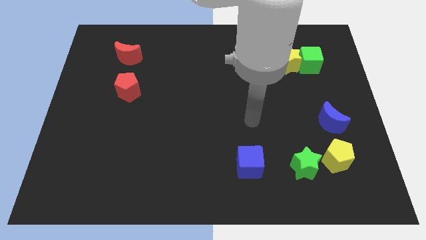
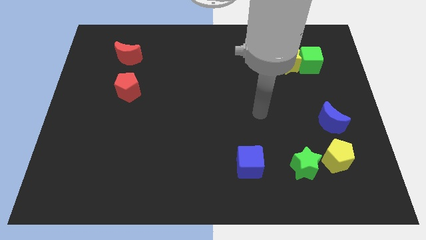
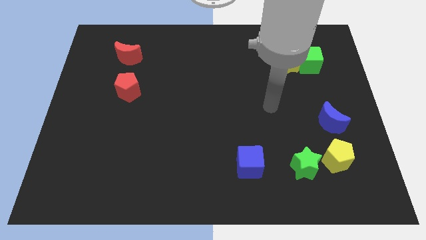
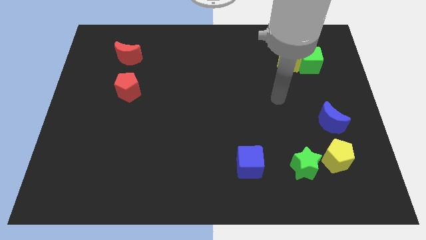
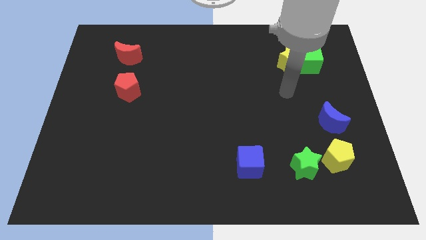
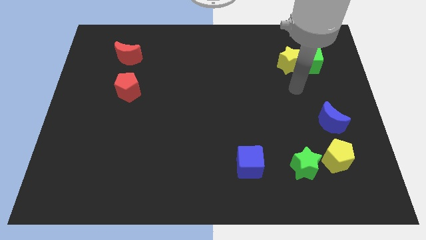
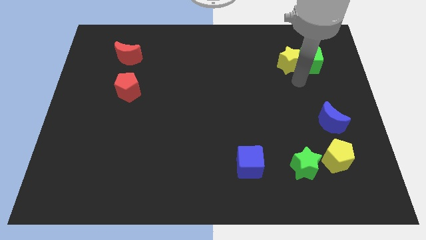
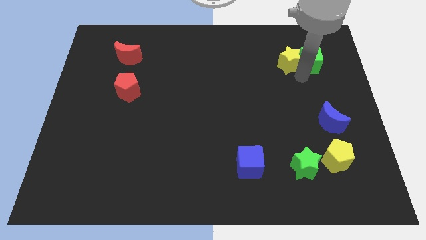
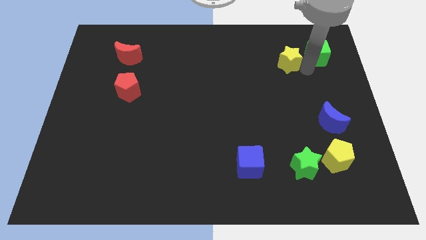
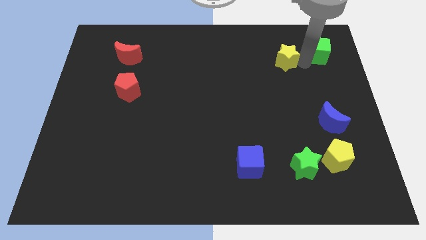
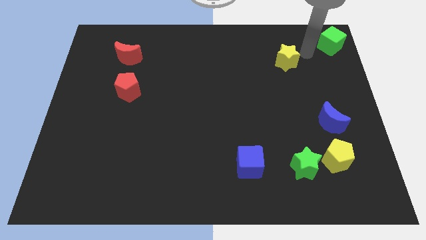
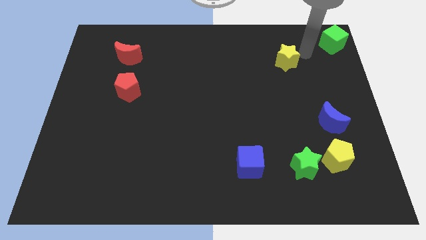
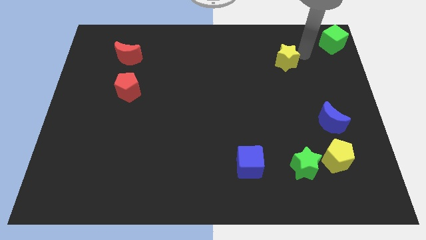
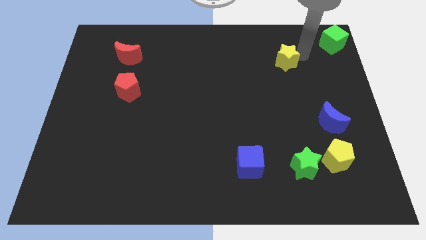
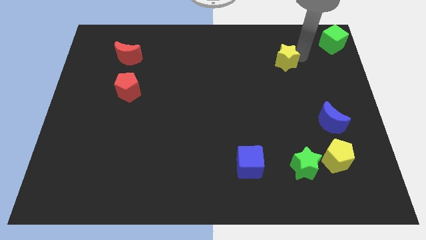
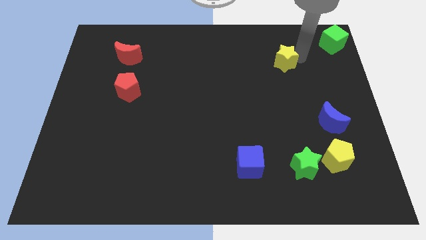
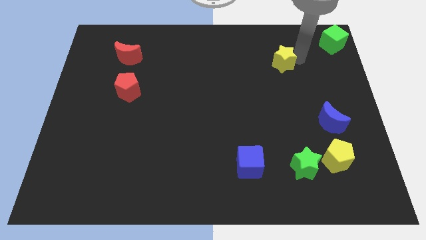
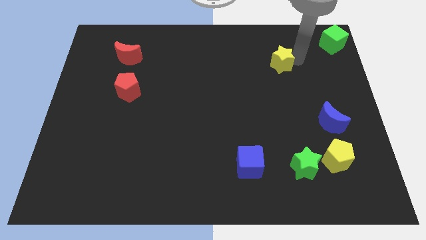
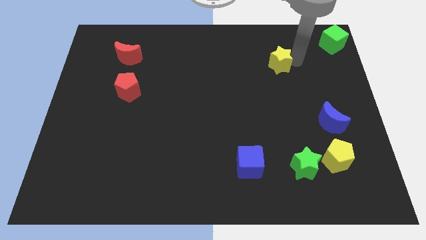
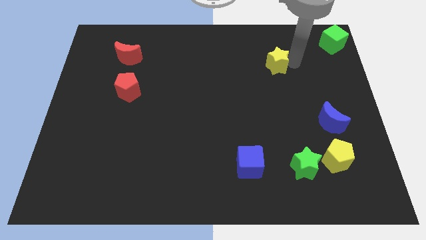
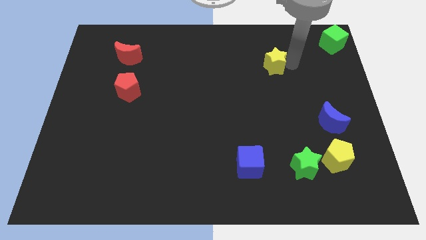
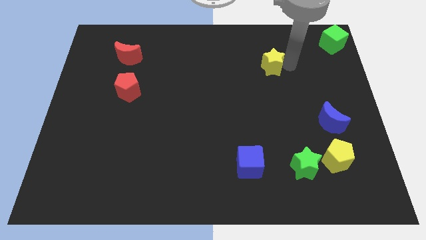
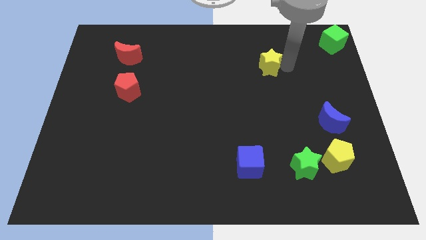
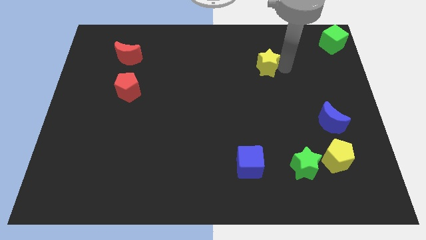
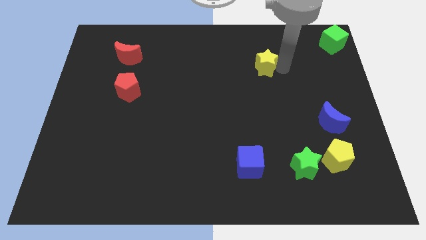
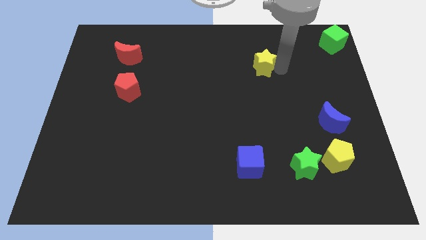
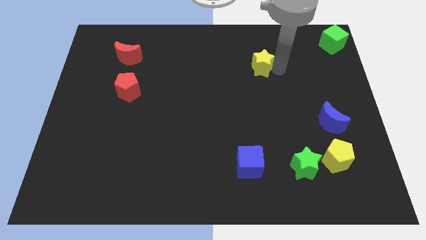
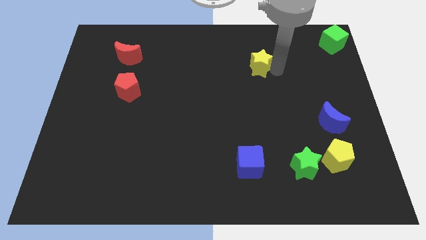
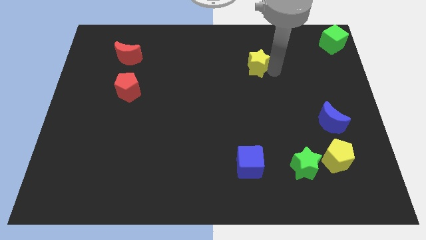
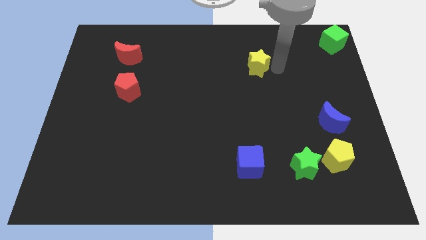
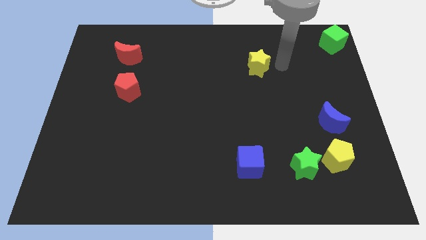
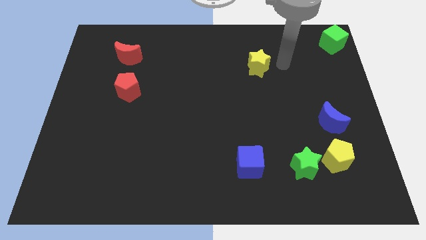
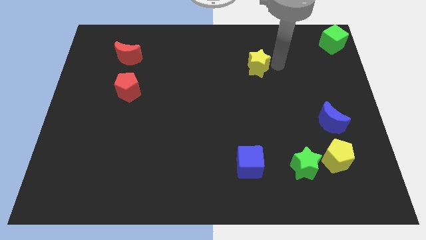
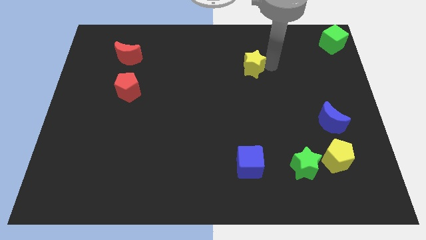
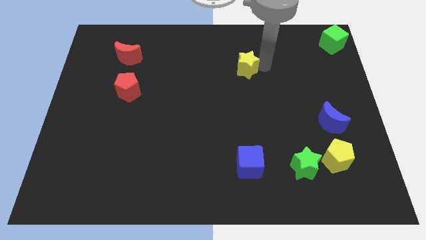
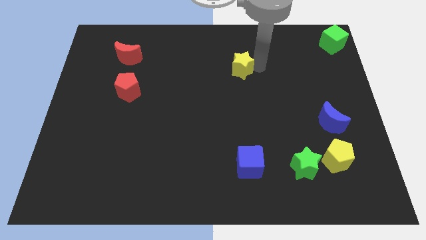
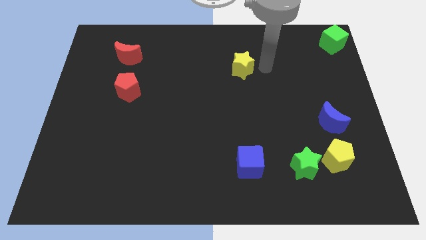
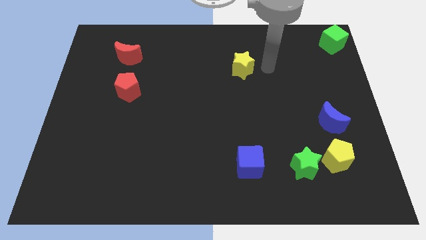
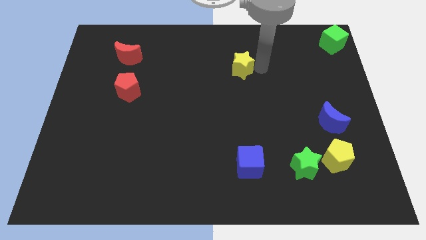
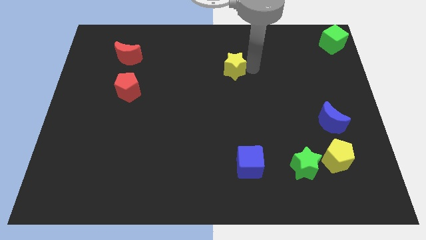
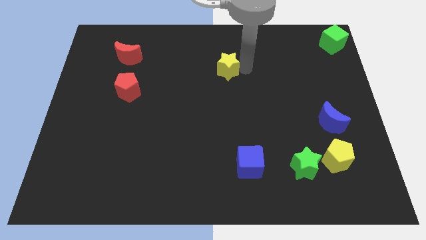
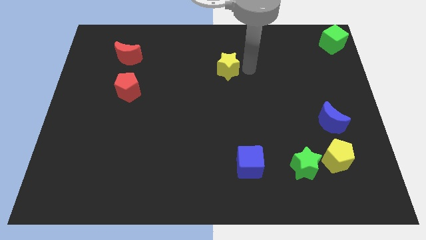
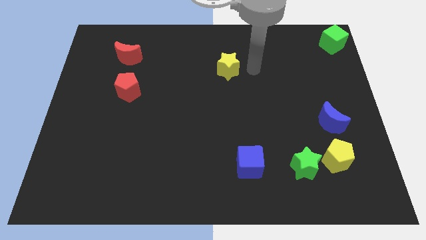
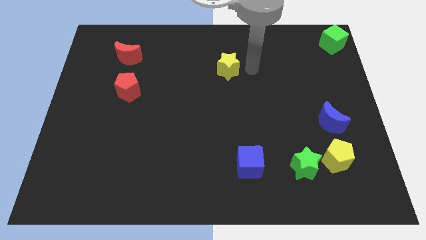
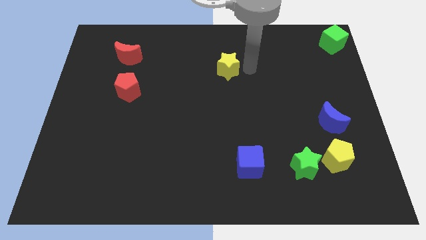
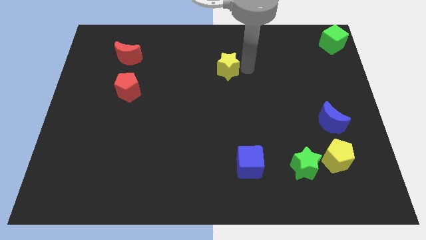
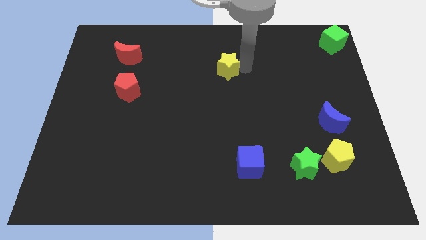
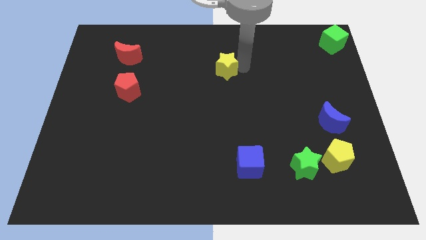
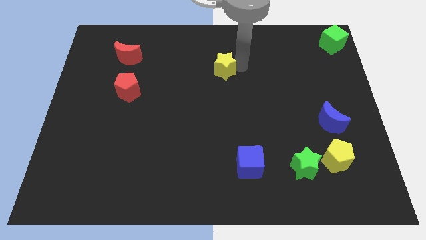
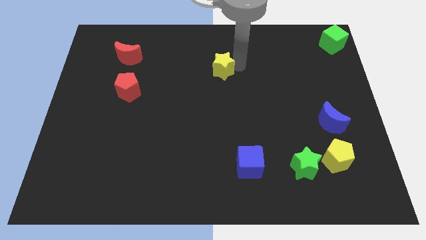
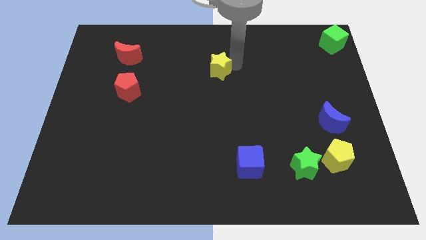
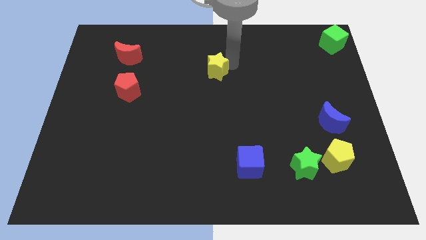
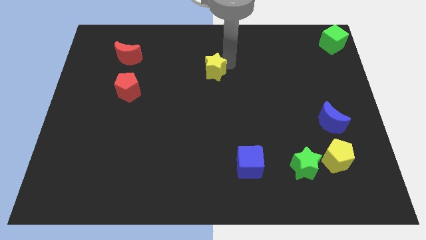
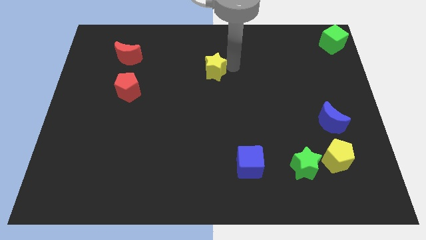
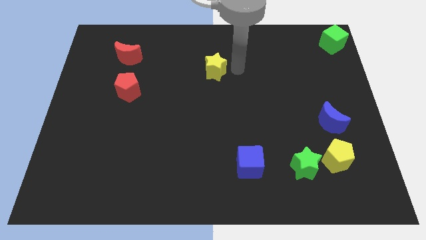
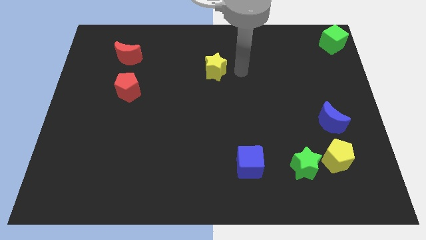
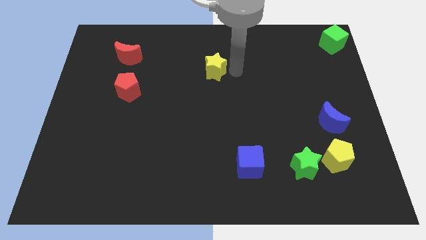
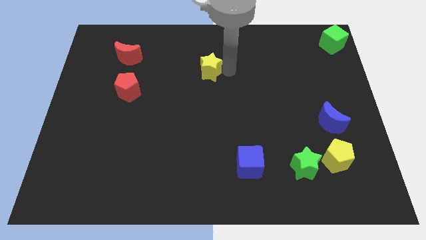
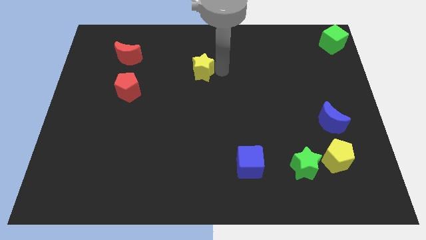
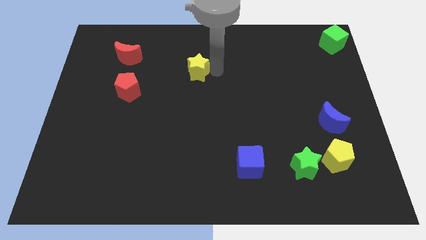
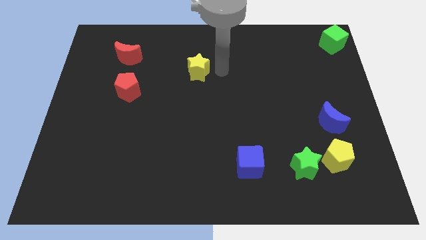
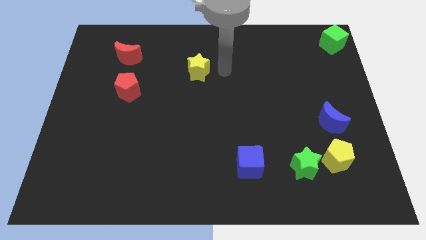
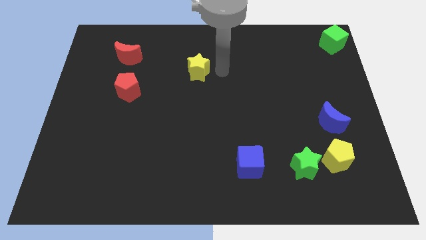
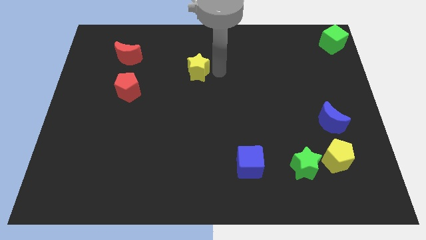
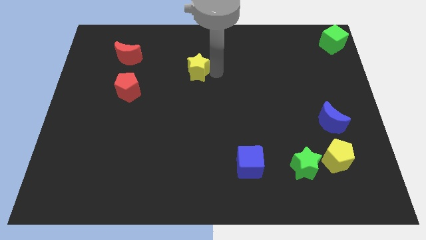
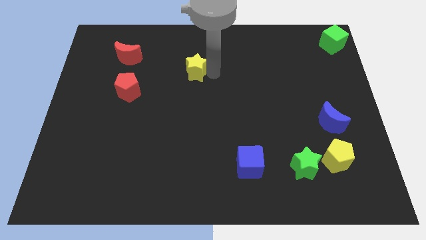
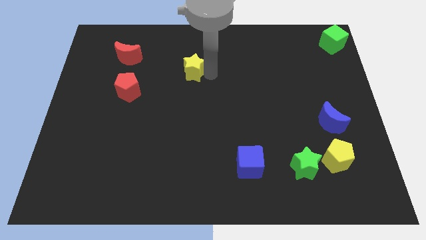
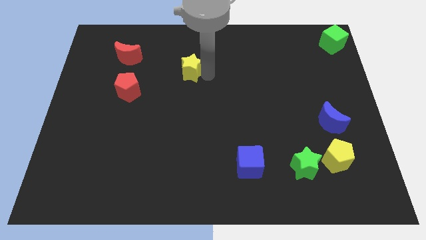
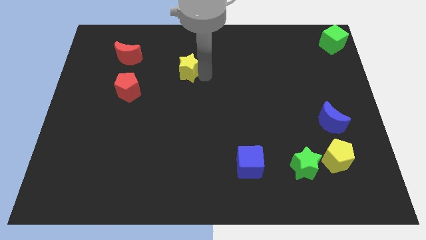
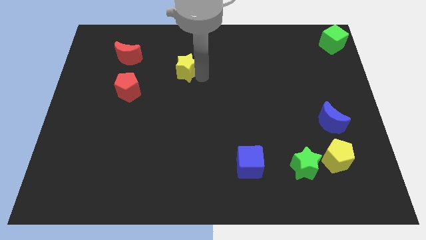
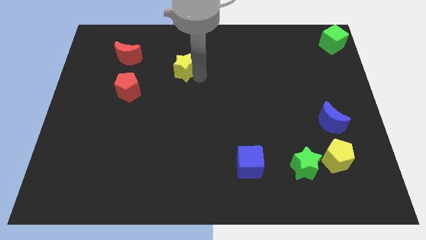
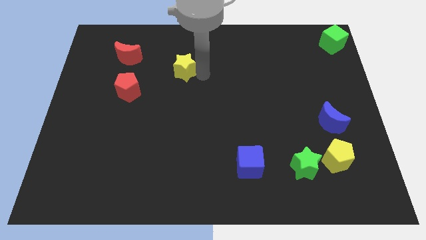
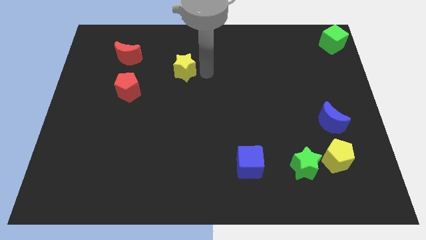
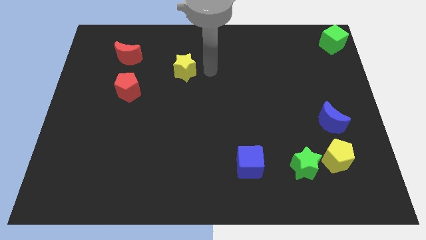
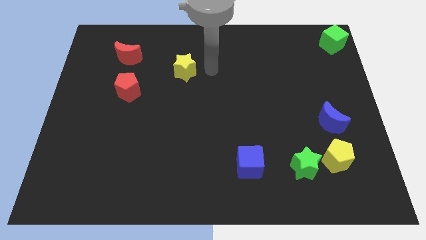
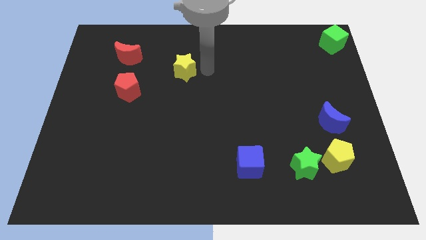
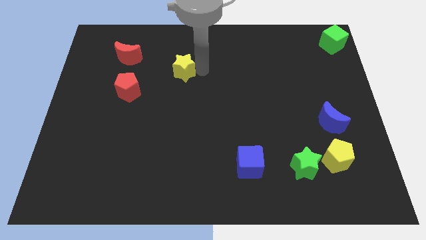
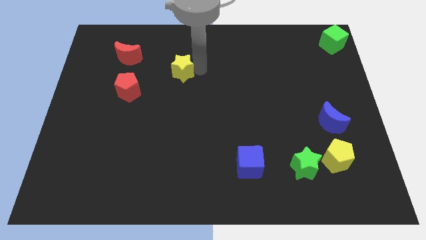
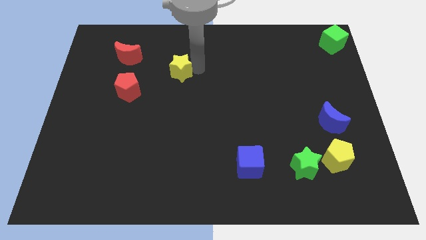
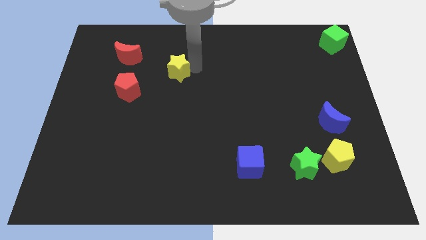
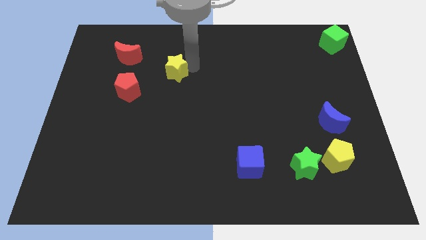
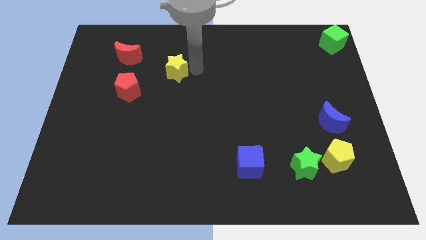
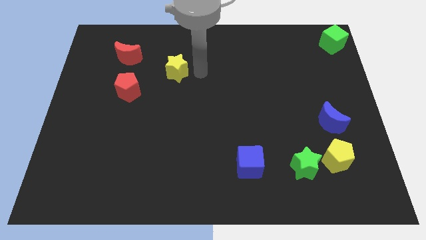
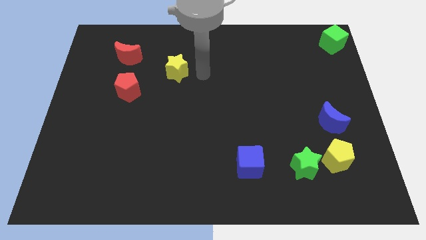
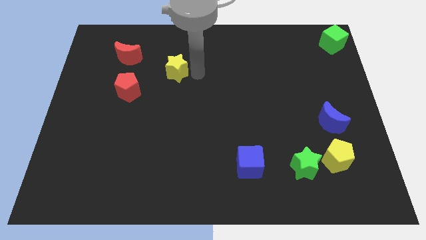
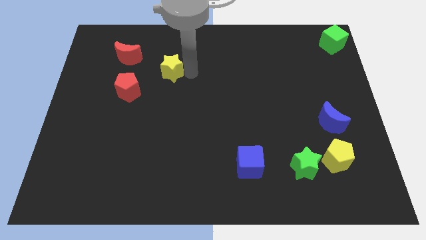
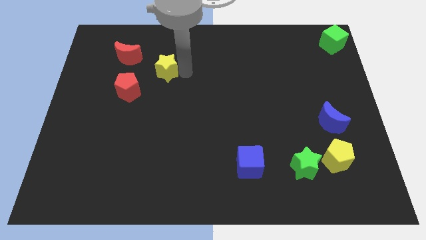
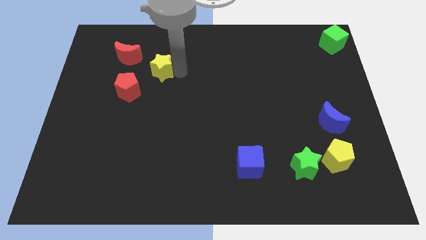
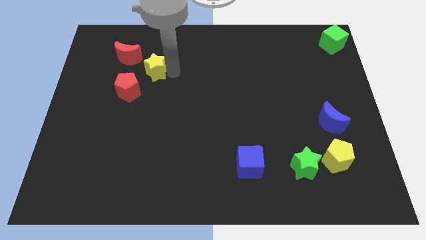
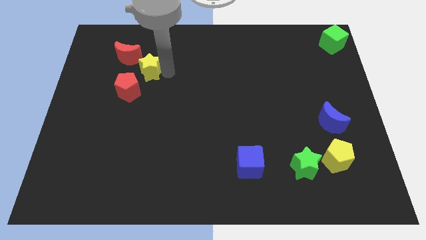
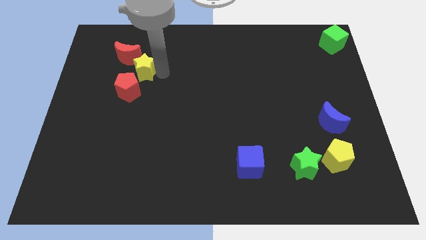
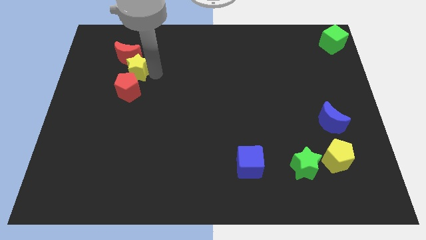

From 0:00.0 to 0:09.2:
put the yellow star to the red moon
